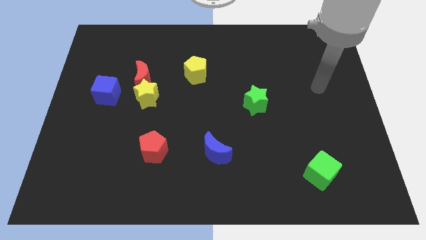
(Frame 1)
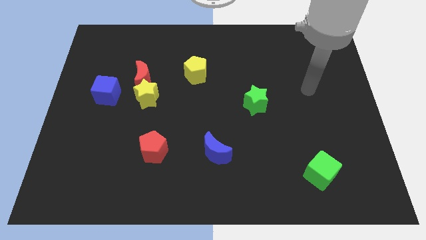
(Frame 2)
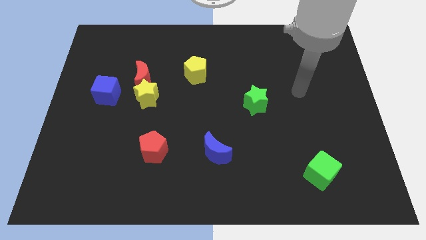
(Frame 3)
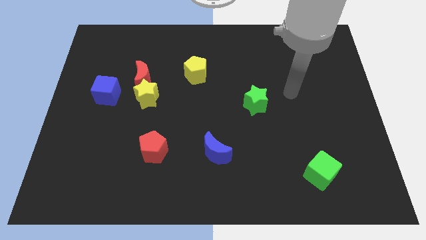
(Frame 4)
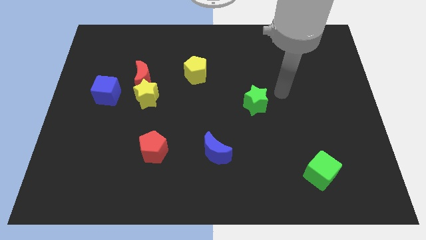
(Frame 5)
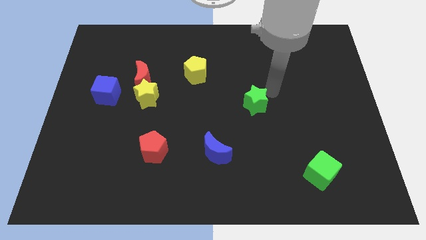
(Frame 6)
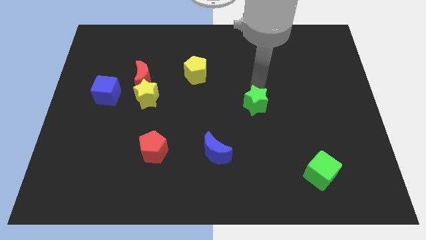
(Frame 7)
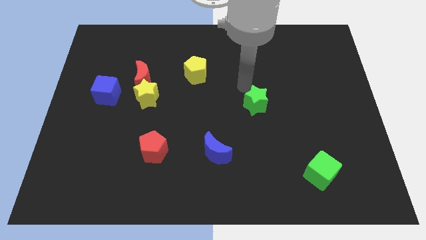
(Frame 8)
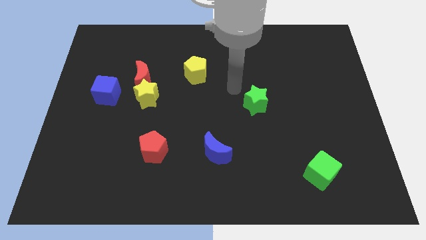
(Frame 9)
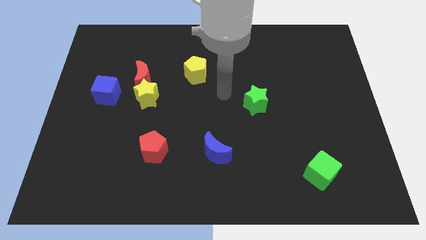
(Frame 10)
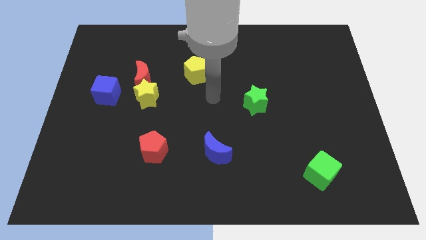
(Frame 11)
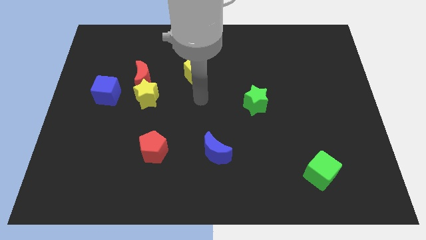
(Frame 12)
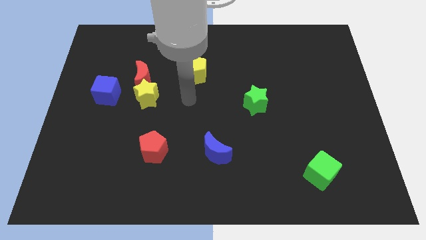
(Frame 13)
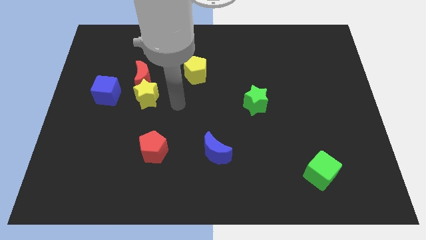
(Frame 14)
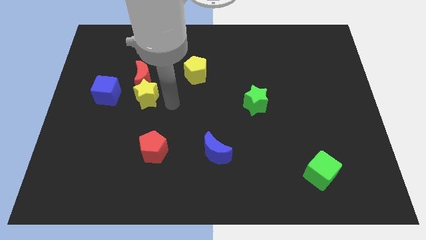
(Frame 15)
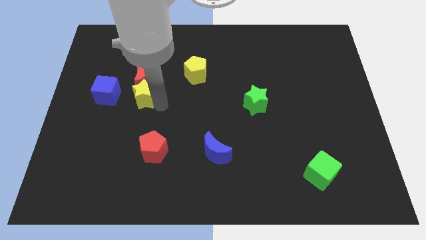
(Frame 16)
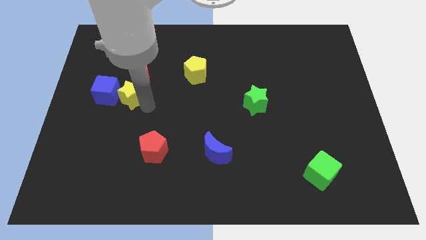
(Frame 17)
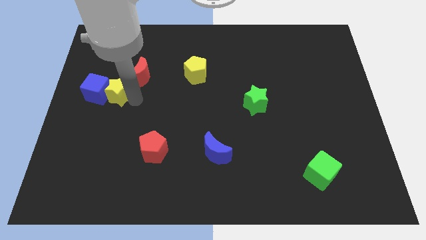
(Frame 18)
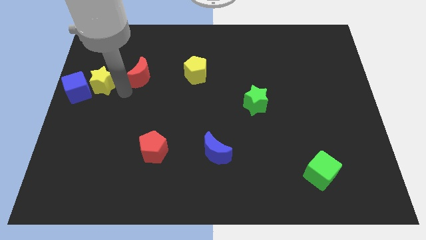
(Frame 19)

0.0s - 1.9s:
move the red moon away from the yellow star and blue cube

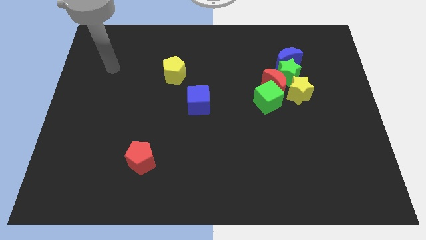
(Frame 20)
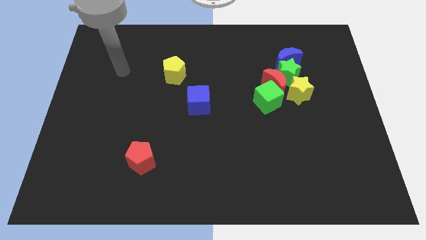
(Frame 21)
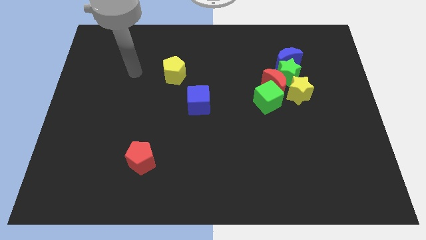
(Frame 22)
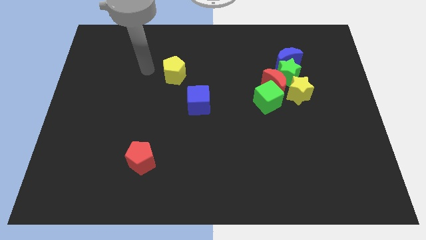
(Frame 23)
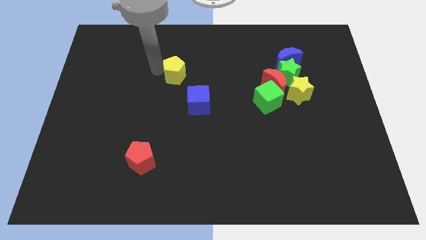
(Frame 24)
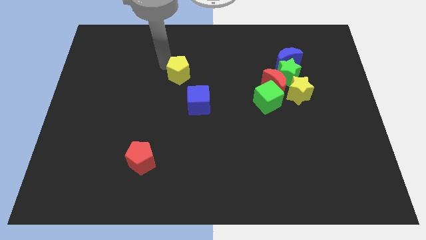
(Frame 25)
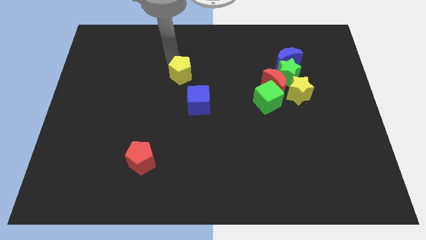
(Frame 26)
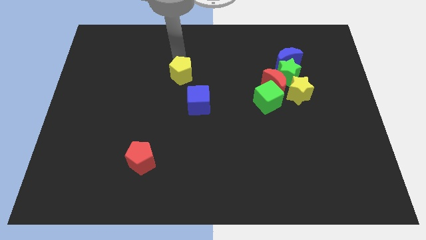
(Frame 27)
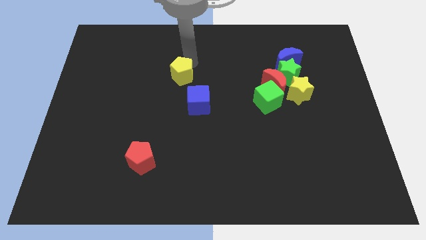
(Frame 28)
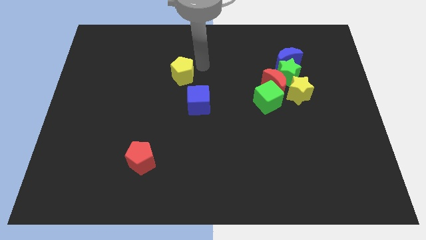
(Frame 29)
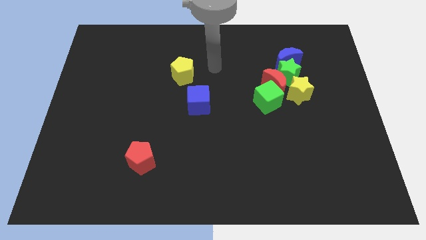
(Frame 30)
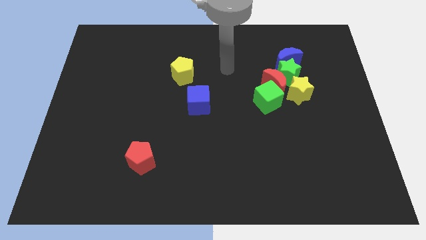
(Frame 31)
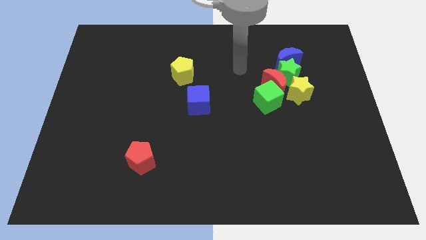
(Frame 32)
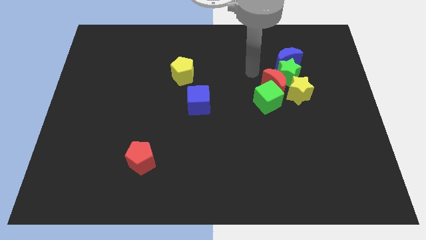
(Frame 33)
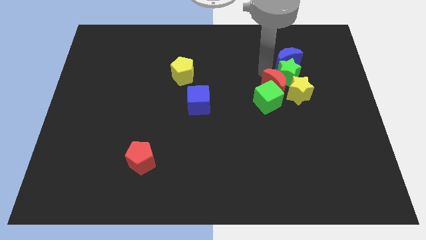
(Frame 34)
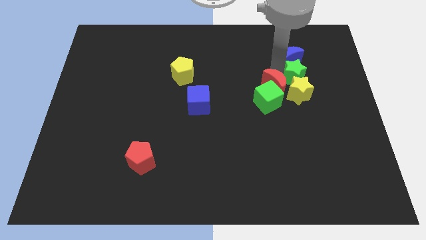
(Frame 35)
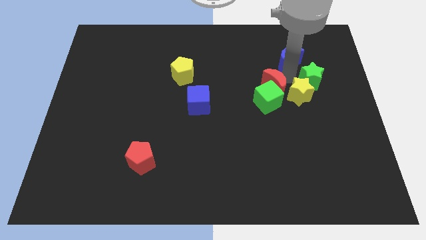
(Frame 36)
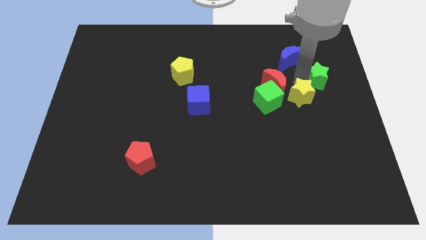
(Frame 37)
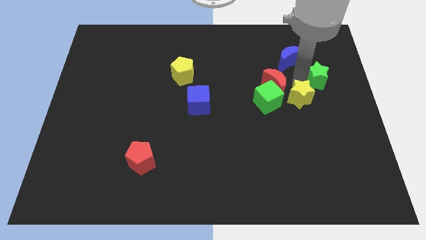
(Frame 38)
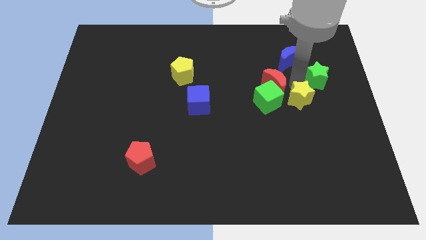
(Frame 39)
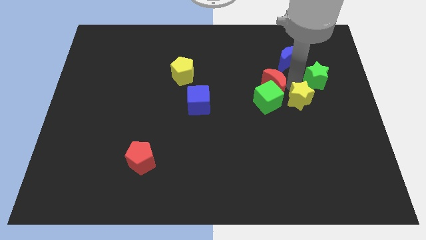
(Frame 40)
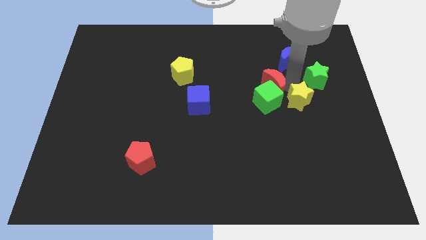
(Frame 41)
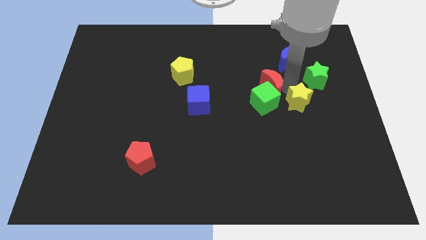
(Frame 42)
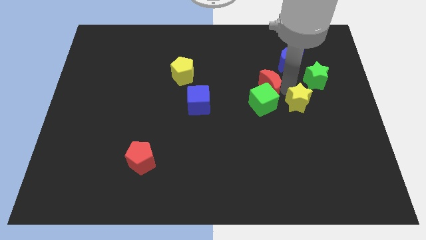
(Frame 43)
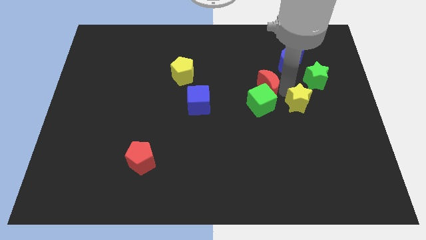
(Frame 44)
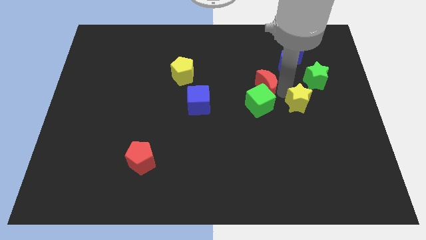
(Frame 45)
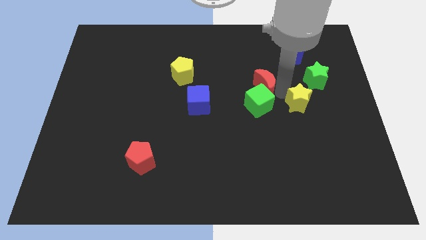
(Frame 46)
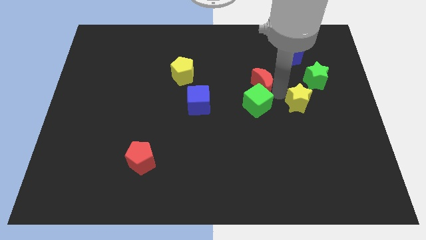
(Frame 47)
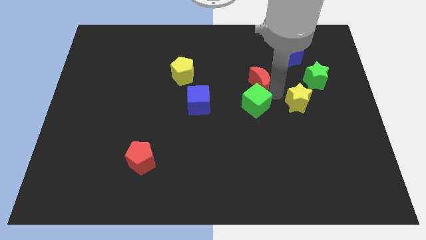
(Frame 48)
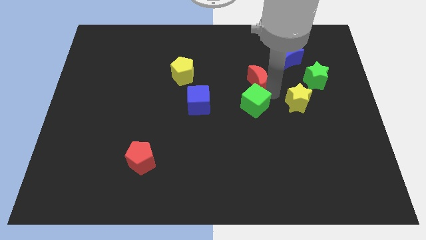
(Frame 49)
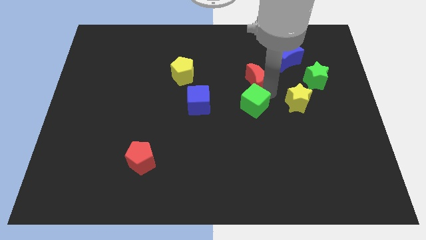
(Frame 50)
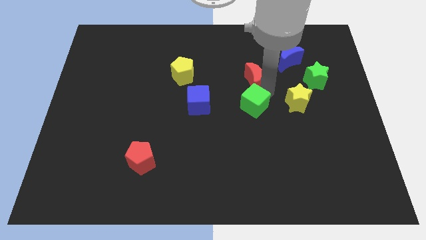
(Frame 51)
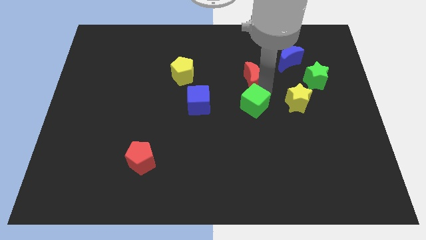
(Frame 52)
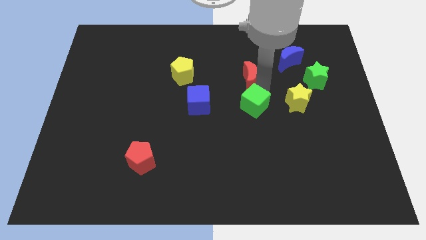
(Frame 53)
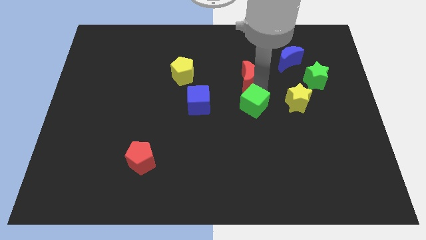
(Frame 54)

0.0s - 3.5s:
separate the red moon from the group

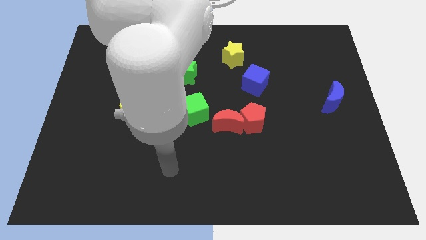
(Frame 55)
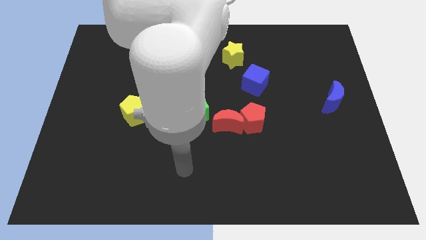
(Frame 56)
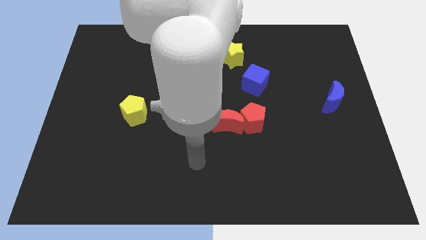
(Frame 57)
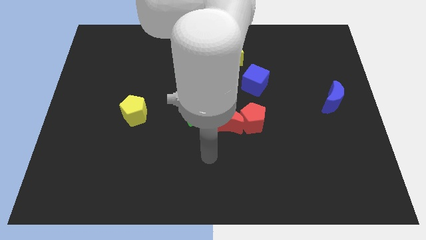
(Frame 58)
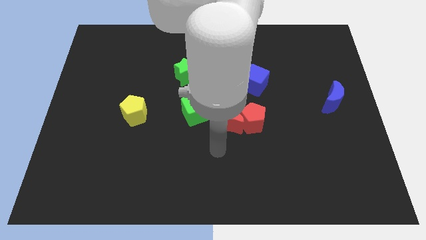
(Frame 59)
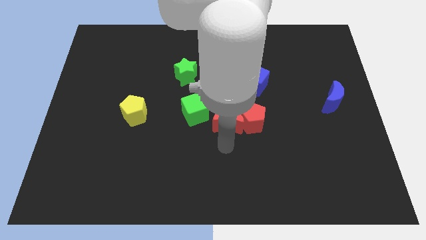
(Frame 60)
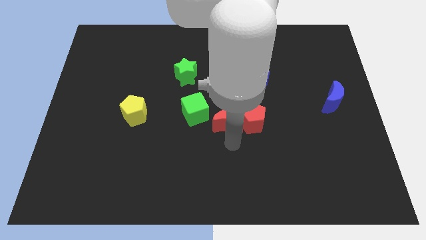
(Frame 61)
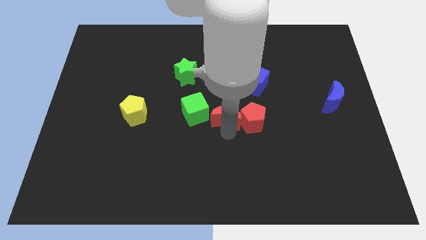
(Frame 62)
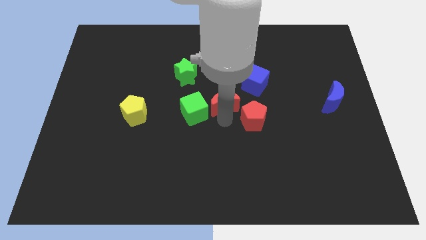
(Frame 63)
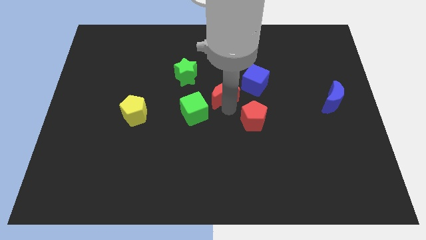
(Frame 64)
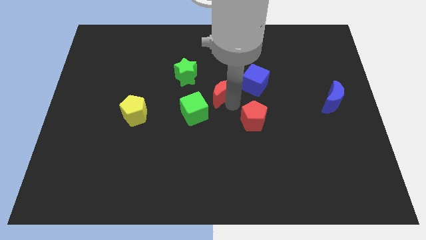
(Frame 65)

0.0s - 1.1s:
pull the red pentagon apart from the red moon

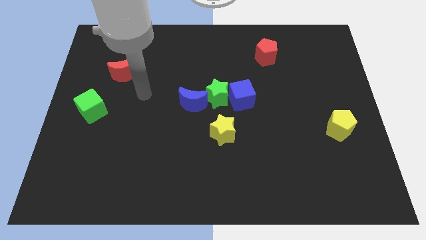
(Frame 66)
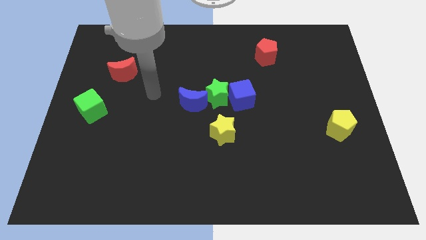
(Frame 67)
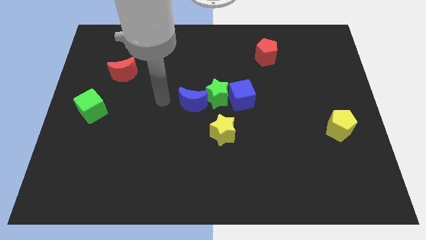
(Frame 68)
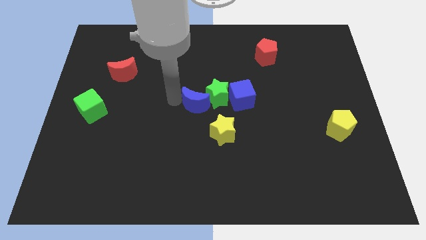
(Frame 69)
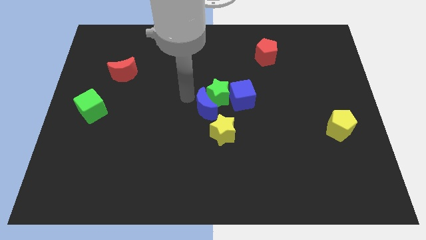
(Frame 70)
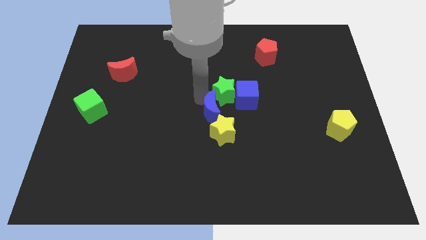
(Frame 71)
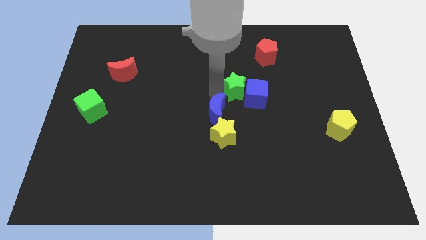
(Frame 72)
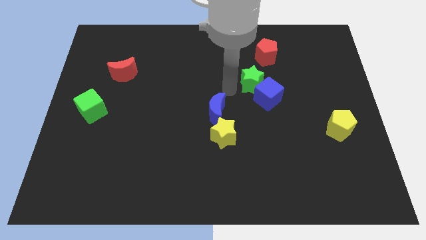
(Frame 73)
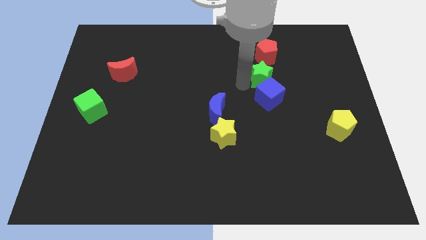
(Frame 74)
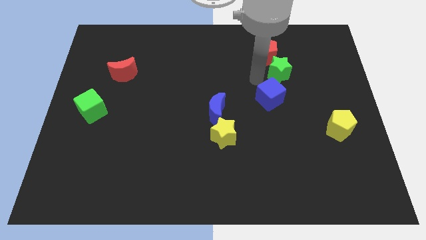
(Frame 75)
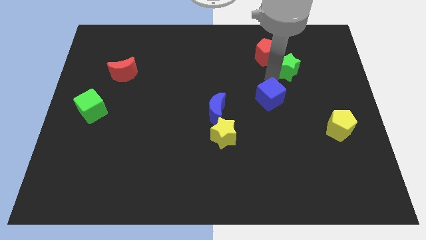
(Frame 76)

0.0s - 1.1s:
separate the blue cube from the green star

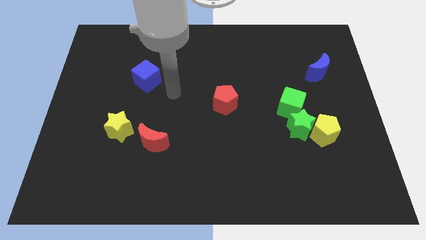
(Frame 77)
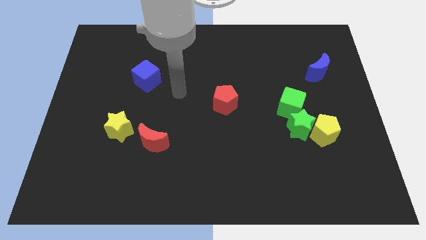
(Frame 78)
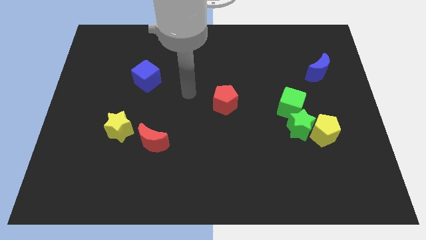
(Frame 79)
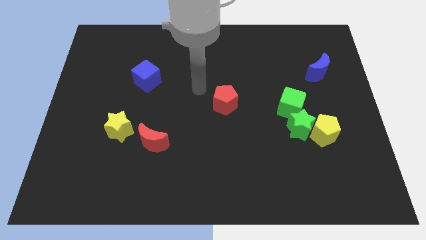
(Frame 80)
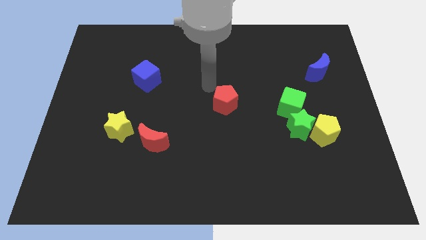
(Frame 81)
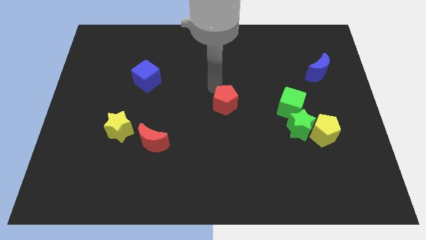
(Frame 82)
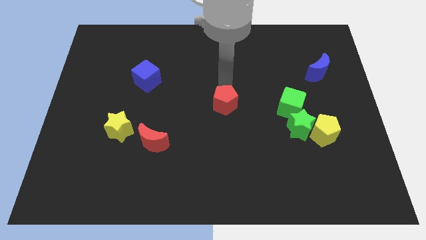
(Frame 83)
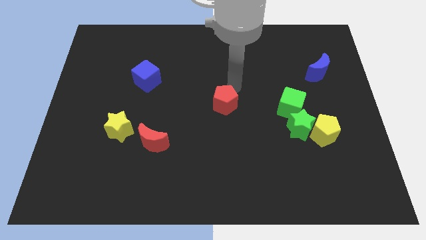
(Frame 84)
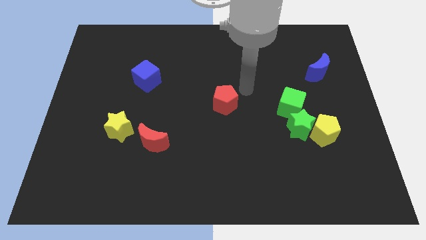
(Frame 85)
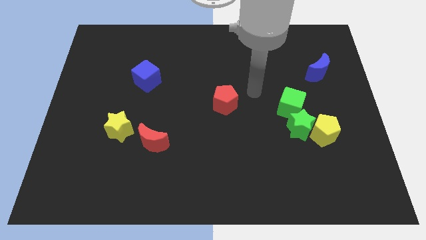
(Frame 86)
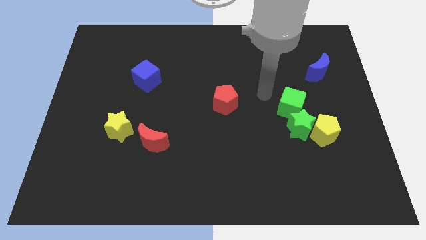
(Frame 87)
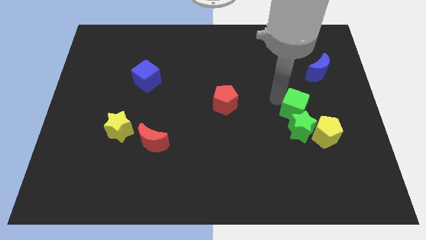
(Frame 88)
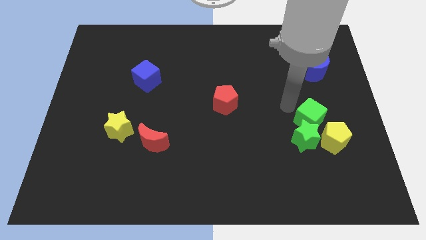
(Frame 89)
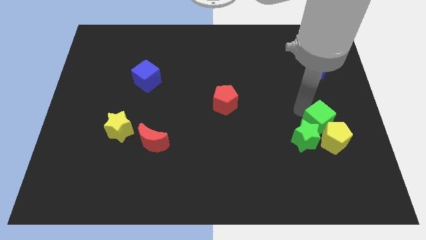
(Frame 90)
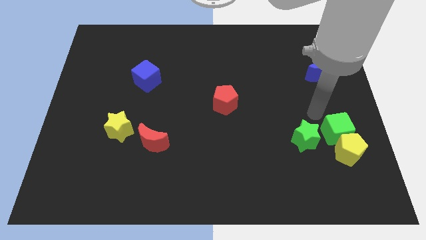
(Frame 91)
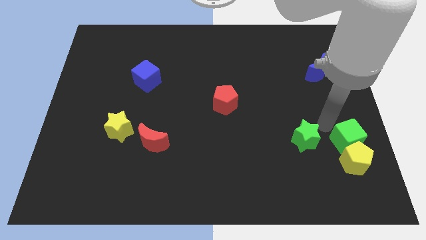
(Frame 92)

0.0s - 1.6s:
move the green star away from the yellow pentagon and green cube
